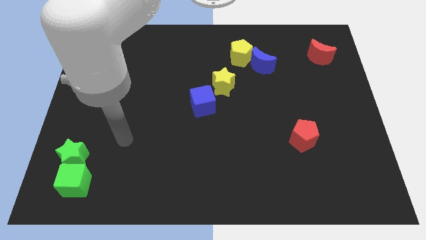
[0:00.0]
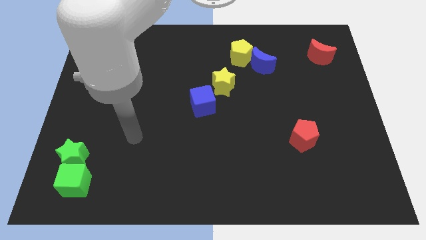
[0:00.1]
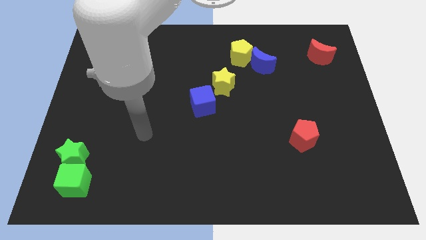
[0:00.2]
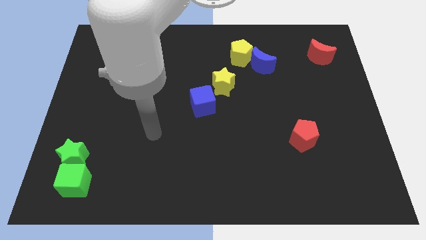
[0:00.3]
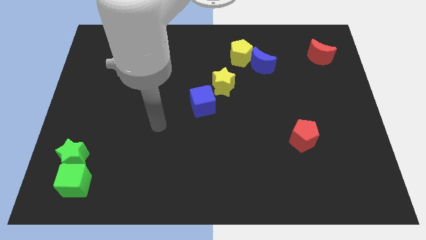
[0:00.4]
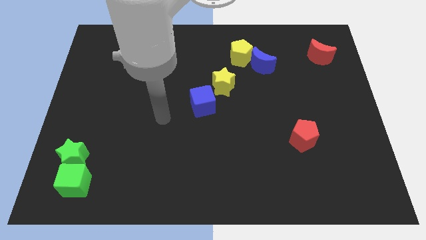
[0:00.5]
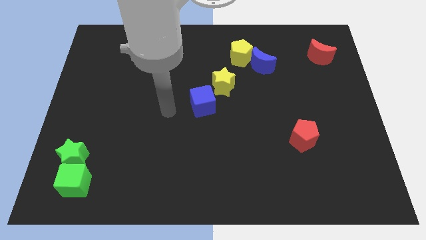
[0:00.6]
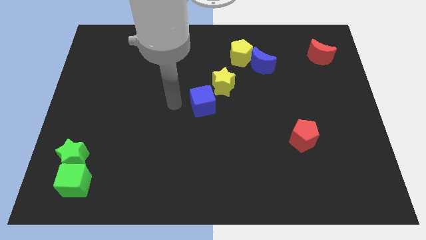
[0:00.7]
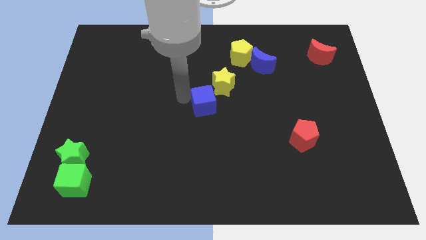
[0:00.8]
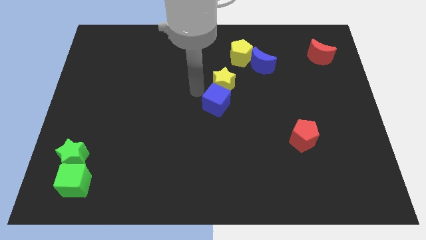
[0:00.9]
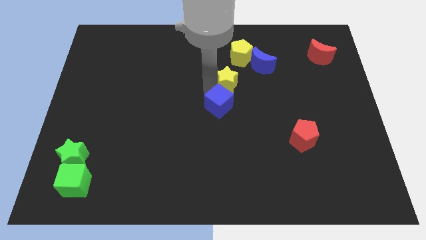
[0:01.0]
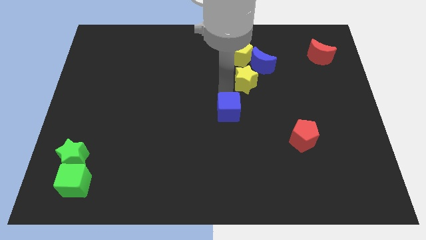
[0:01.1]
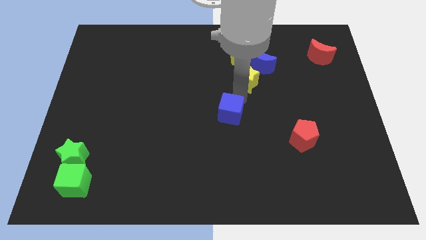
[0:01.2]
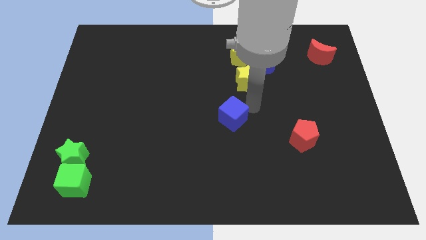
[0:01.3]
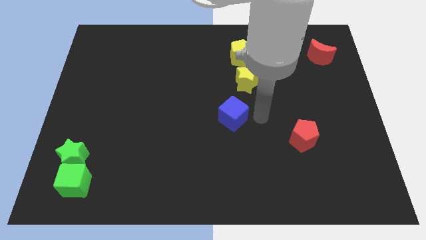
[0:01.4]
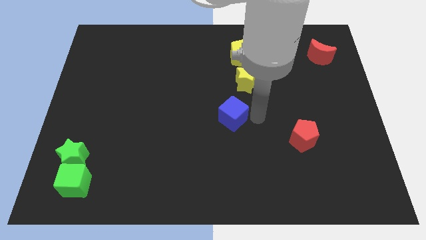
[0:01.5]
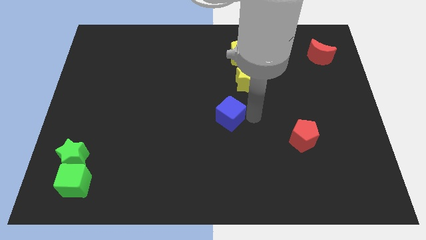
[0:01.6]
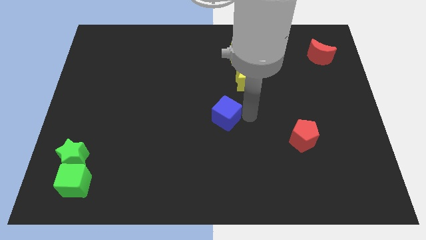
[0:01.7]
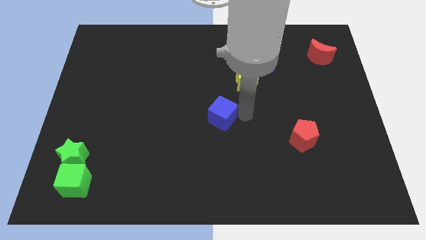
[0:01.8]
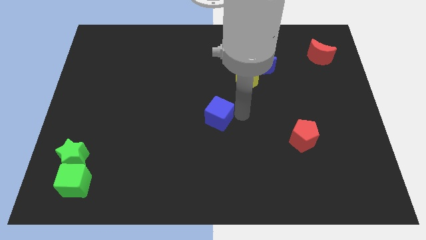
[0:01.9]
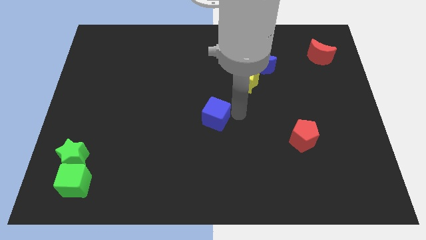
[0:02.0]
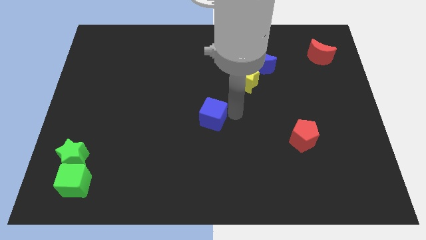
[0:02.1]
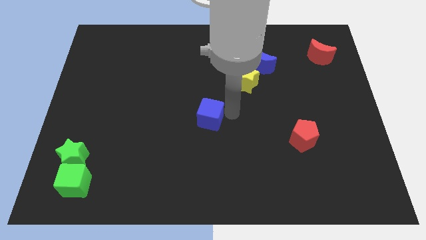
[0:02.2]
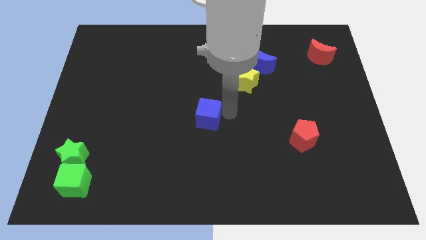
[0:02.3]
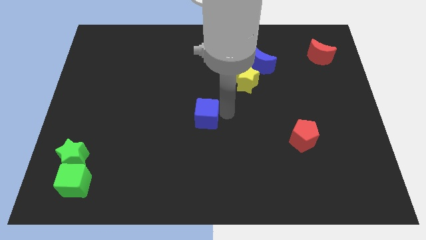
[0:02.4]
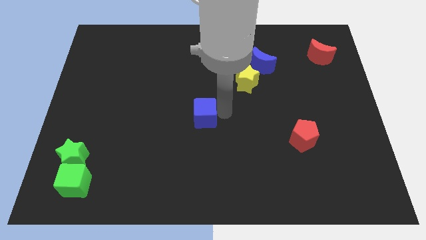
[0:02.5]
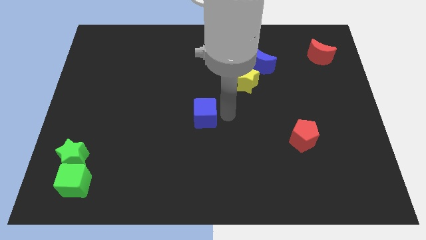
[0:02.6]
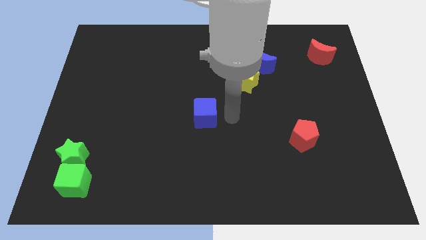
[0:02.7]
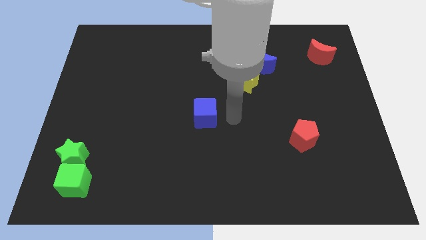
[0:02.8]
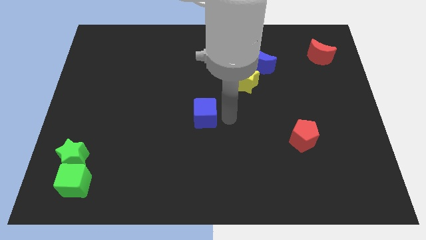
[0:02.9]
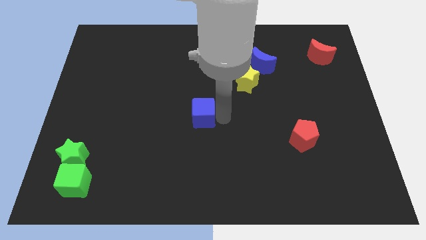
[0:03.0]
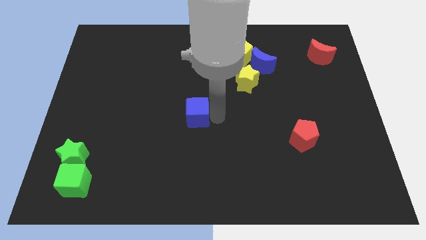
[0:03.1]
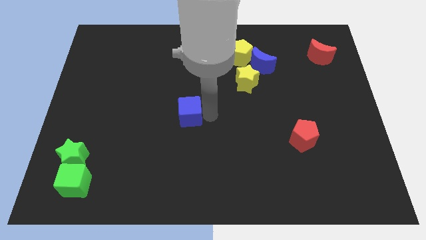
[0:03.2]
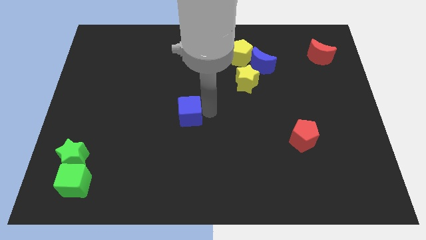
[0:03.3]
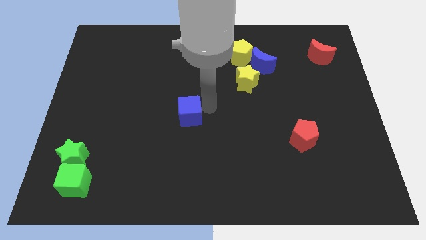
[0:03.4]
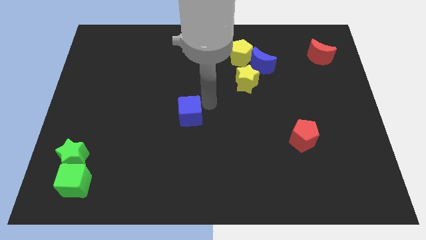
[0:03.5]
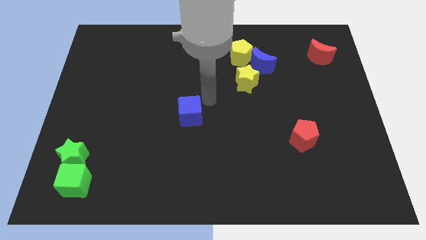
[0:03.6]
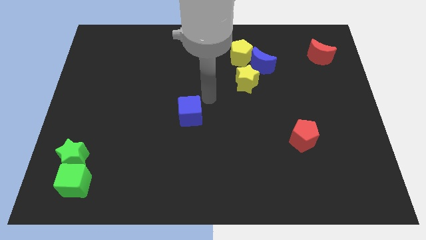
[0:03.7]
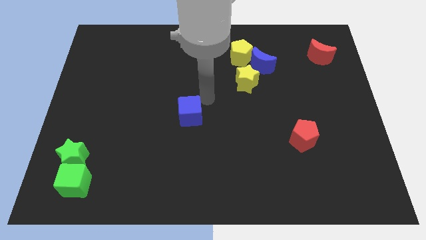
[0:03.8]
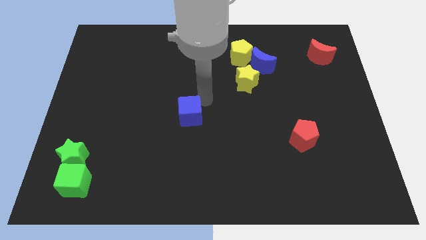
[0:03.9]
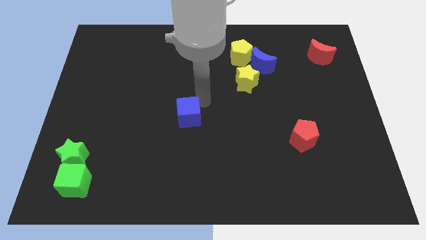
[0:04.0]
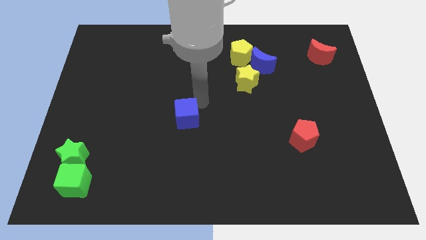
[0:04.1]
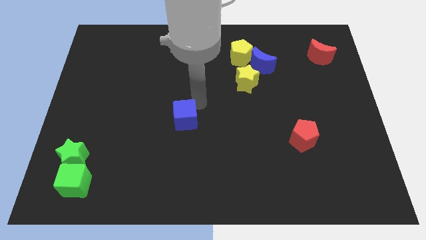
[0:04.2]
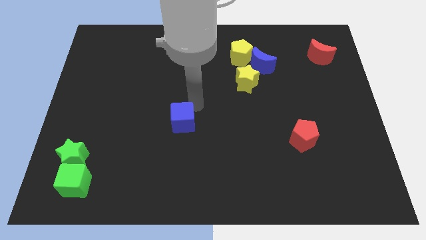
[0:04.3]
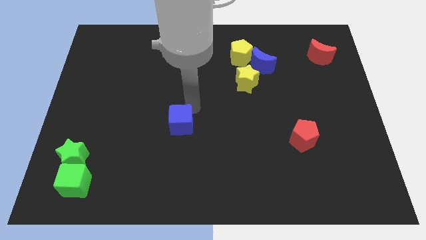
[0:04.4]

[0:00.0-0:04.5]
slide the blue cube a little bit down and left diagonally

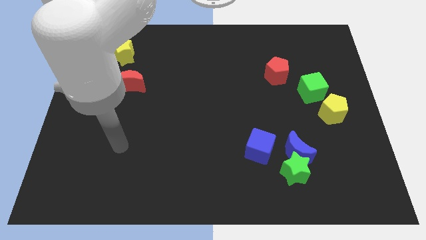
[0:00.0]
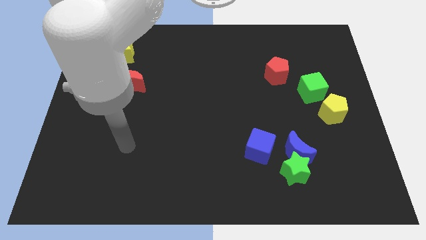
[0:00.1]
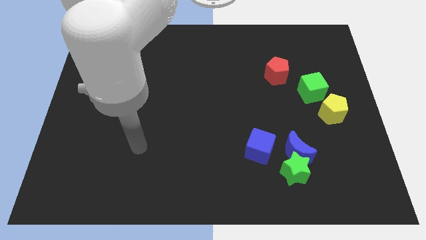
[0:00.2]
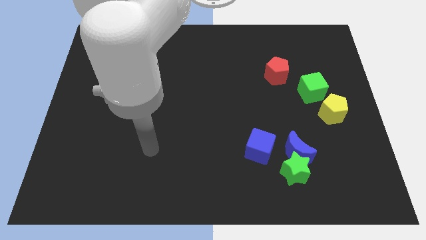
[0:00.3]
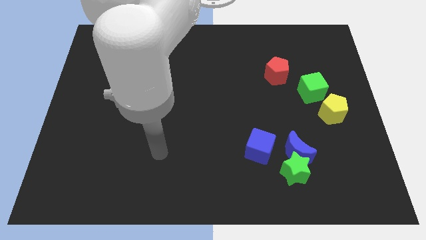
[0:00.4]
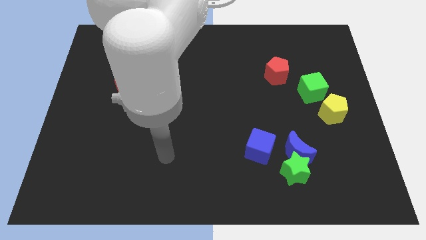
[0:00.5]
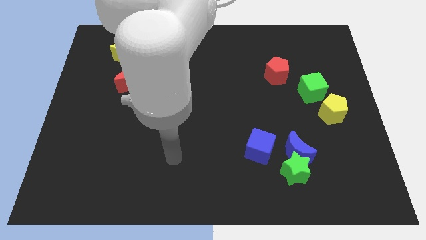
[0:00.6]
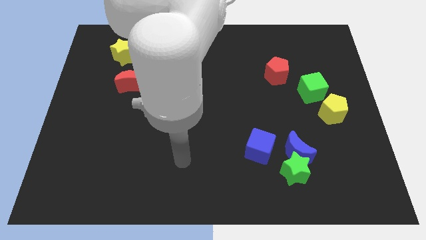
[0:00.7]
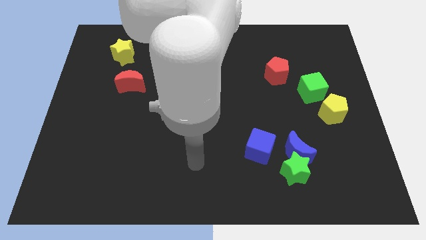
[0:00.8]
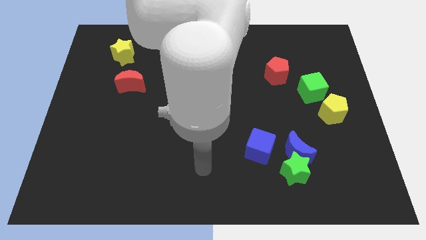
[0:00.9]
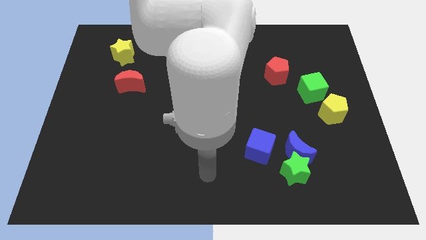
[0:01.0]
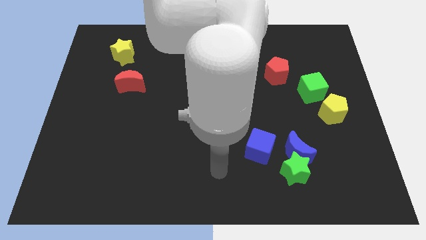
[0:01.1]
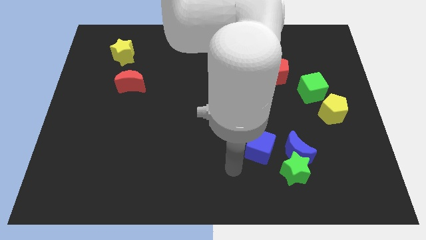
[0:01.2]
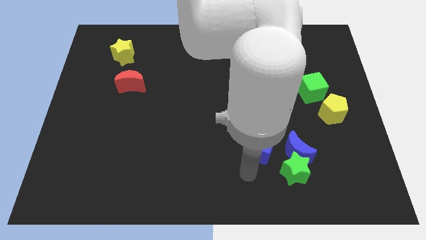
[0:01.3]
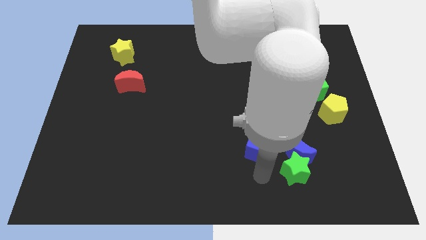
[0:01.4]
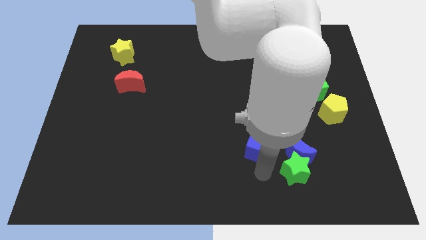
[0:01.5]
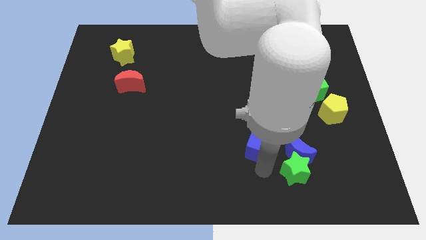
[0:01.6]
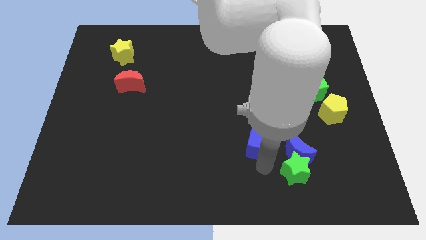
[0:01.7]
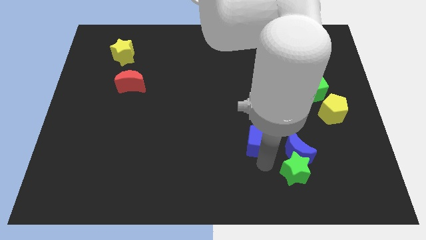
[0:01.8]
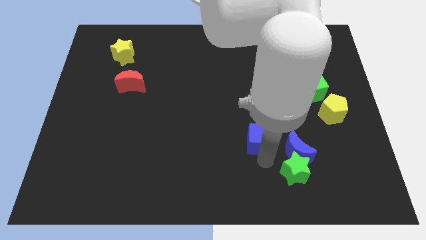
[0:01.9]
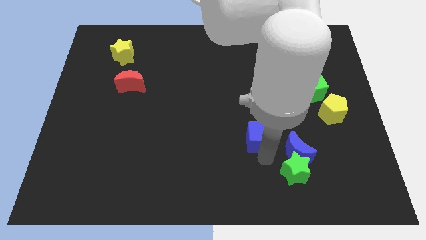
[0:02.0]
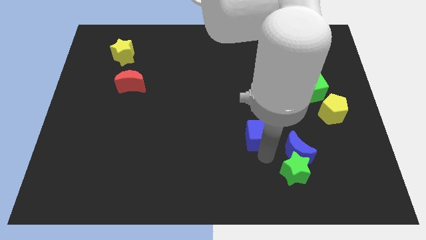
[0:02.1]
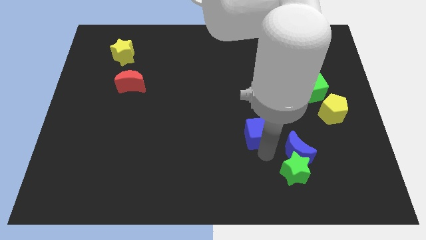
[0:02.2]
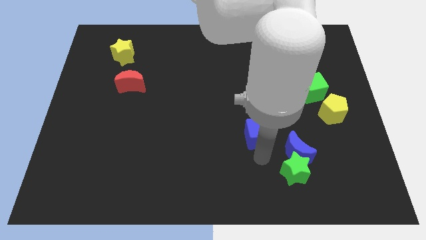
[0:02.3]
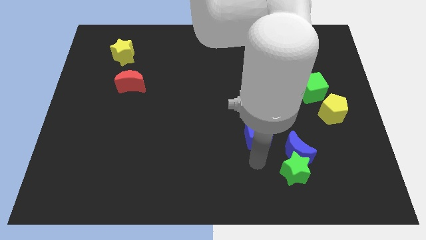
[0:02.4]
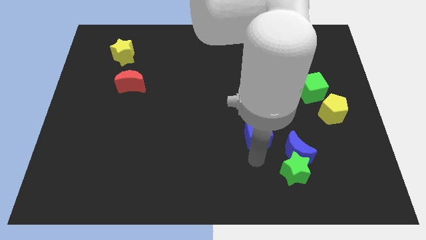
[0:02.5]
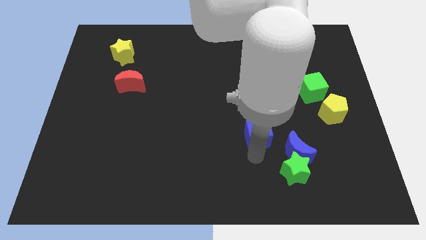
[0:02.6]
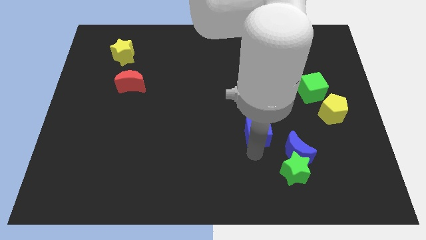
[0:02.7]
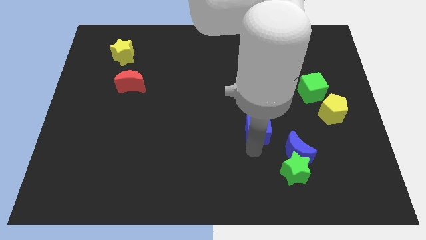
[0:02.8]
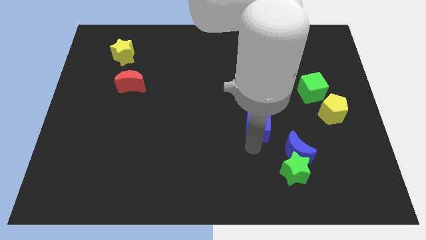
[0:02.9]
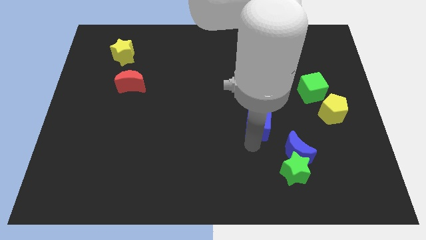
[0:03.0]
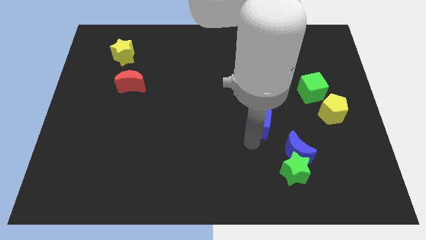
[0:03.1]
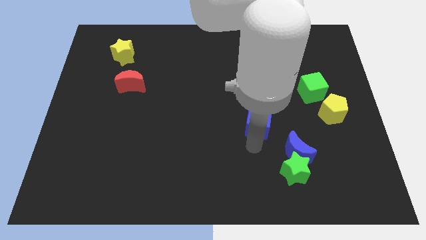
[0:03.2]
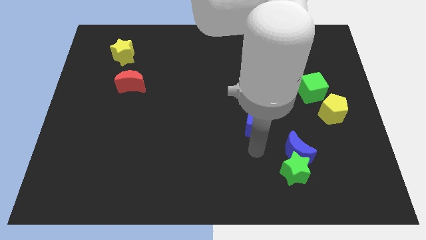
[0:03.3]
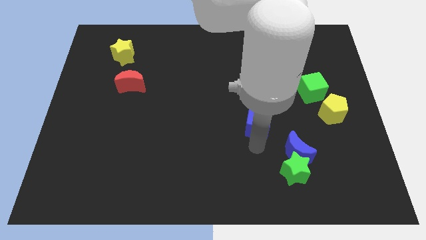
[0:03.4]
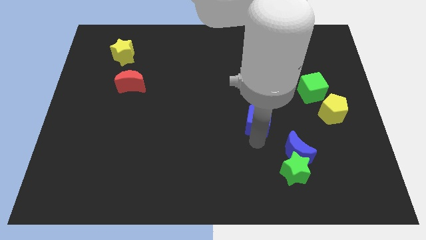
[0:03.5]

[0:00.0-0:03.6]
push the blue cube a little bit up
